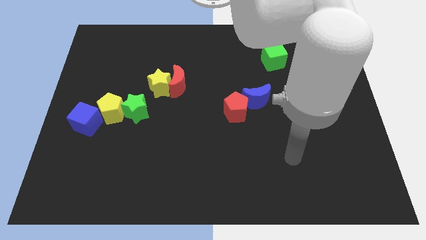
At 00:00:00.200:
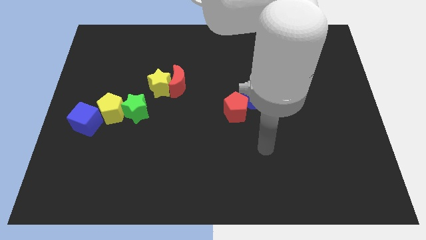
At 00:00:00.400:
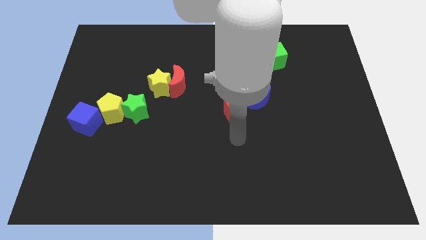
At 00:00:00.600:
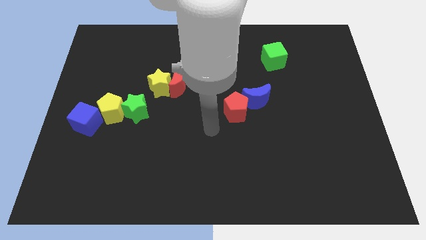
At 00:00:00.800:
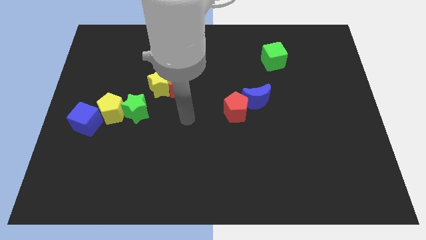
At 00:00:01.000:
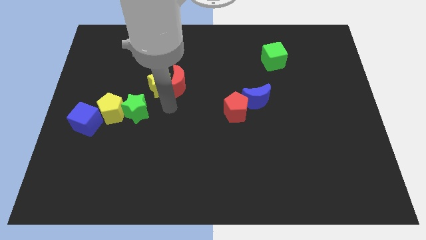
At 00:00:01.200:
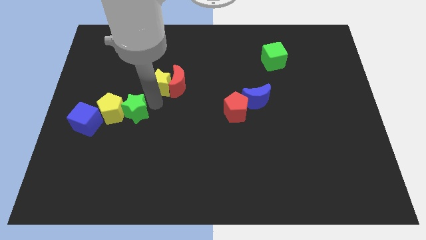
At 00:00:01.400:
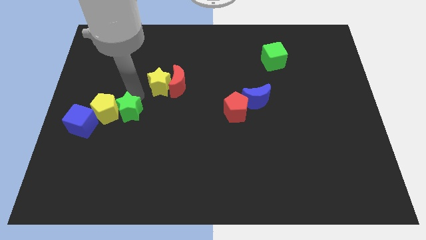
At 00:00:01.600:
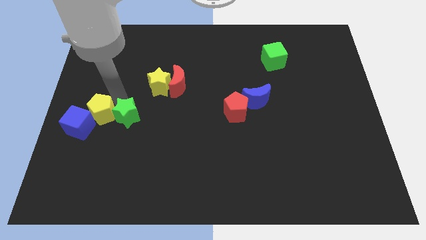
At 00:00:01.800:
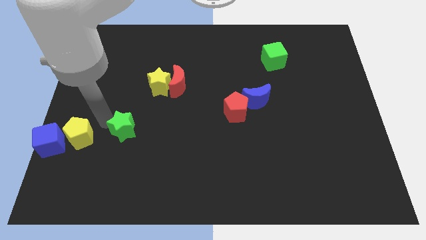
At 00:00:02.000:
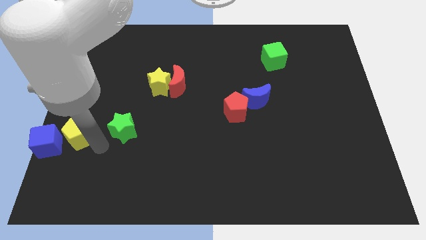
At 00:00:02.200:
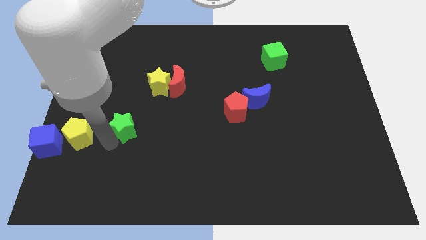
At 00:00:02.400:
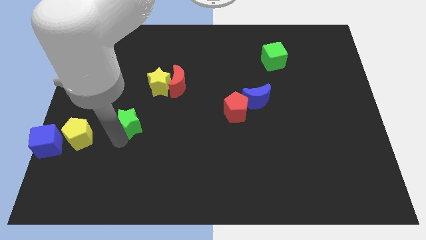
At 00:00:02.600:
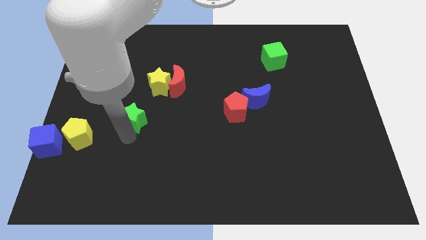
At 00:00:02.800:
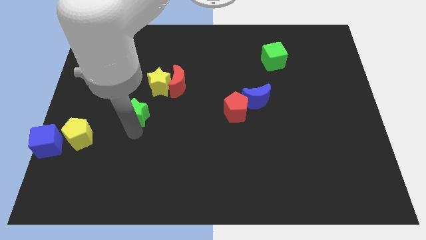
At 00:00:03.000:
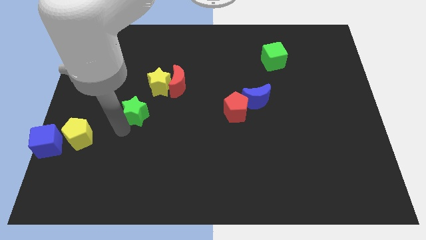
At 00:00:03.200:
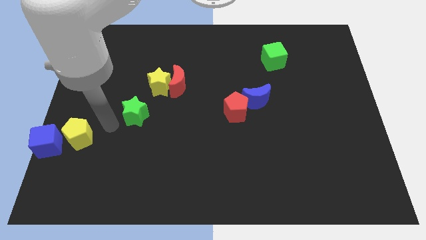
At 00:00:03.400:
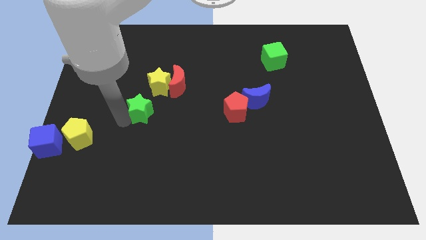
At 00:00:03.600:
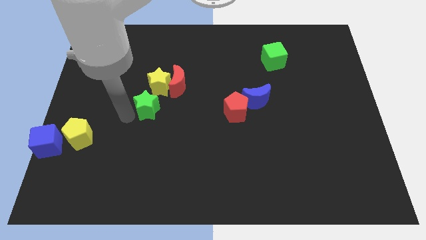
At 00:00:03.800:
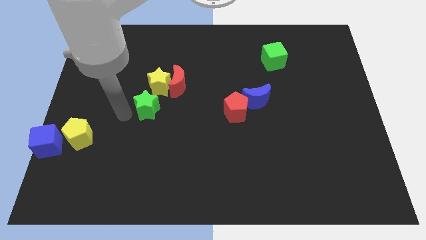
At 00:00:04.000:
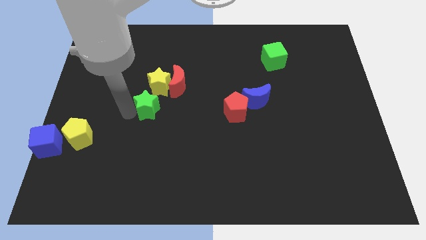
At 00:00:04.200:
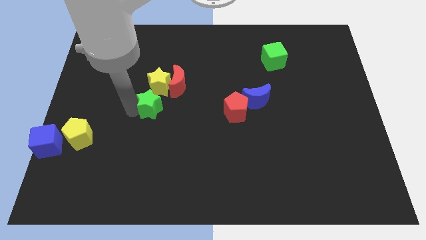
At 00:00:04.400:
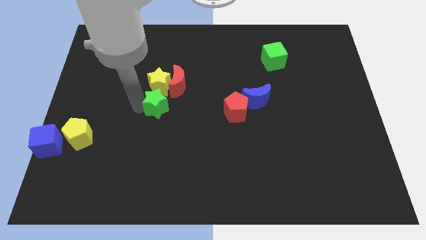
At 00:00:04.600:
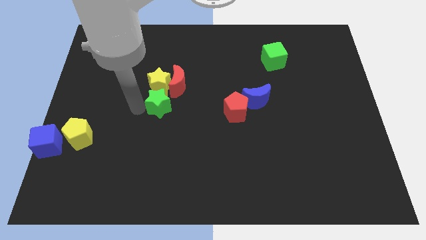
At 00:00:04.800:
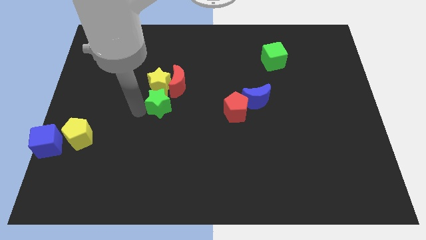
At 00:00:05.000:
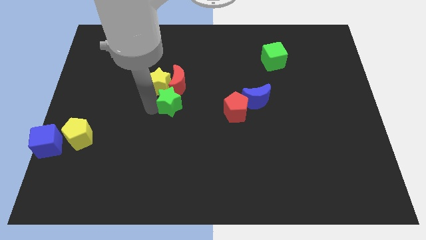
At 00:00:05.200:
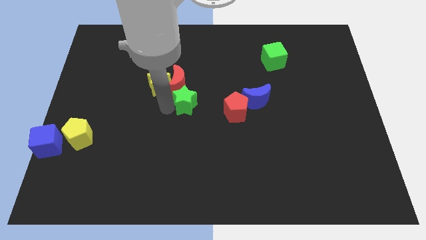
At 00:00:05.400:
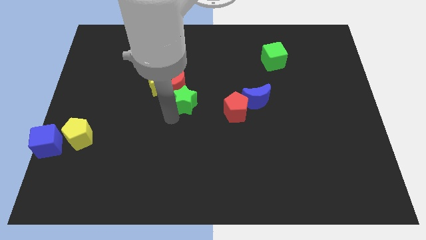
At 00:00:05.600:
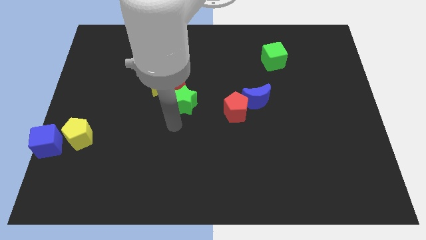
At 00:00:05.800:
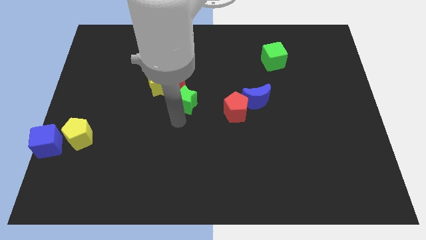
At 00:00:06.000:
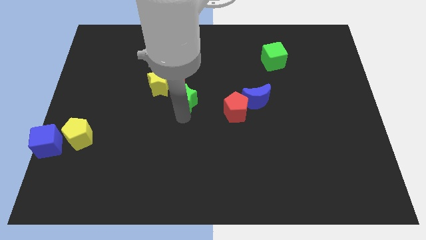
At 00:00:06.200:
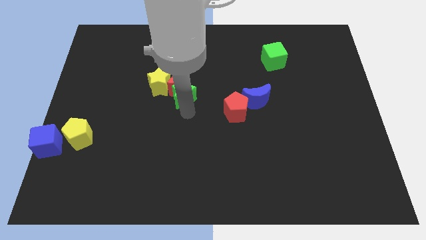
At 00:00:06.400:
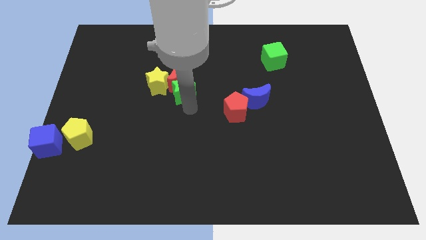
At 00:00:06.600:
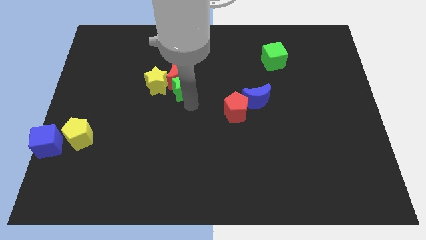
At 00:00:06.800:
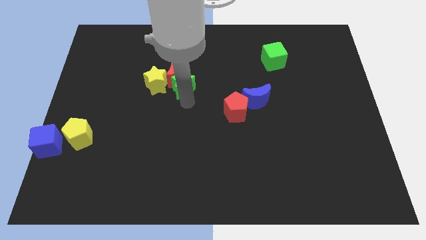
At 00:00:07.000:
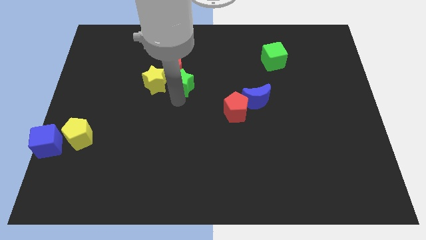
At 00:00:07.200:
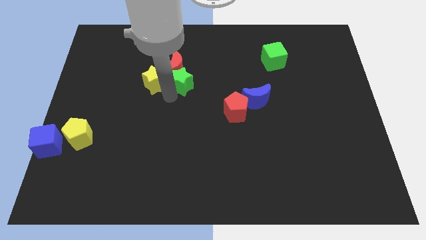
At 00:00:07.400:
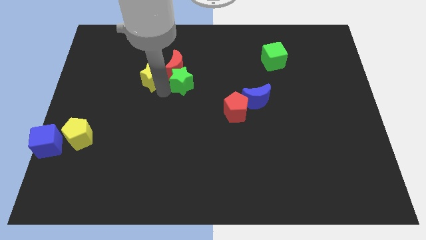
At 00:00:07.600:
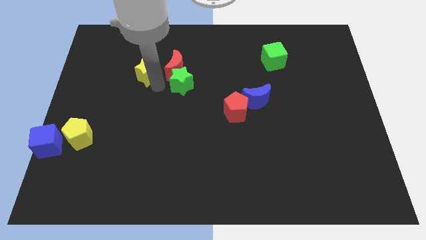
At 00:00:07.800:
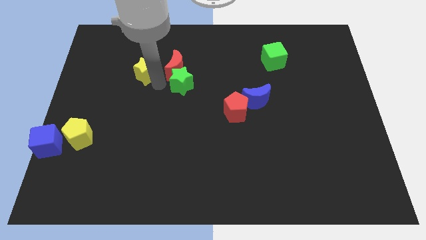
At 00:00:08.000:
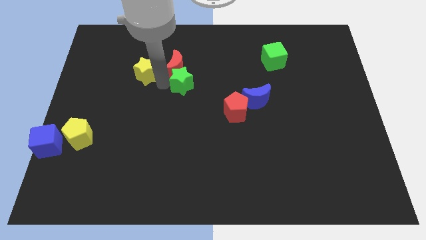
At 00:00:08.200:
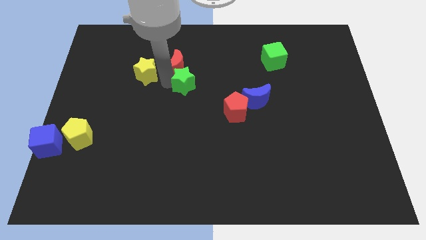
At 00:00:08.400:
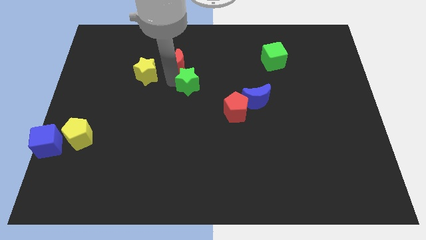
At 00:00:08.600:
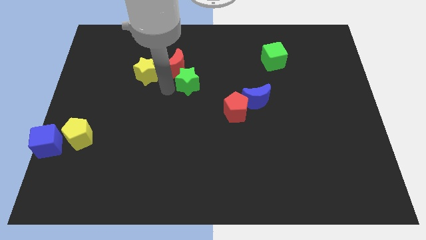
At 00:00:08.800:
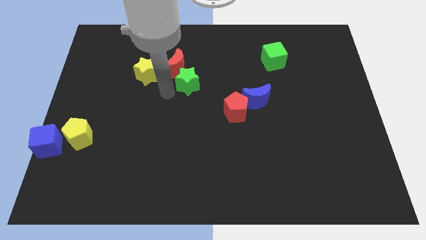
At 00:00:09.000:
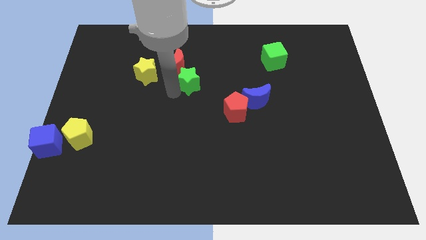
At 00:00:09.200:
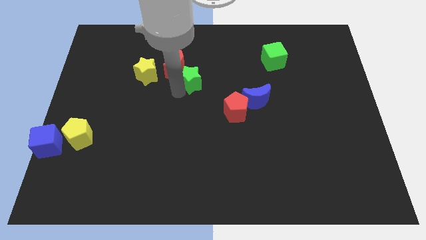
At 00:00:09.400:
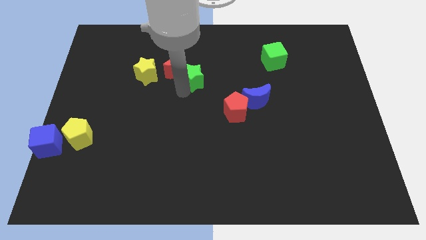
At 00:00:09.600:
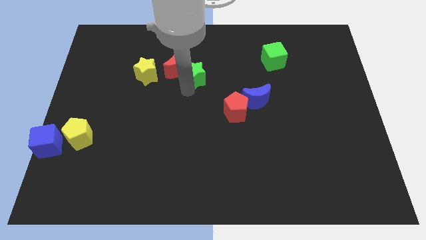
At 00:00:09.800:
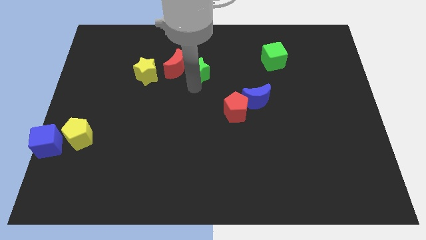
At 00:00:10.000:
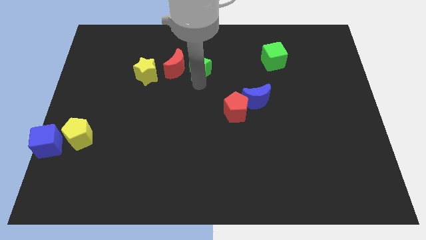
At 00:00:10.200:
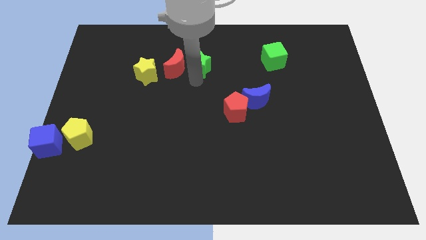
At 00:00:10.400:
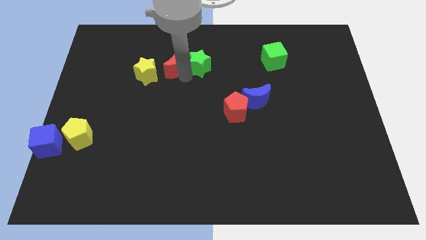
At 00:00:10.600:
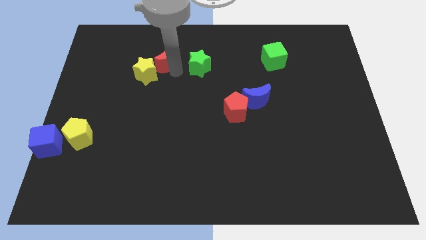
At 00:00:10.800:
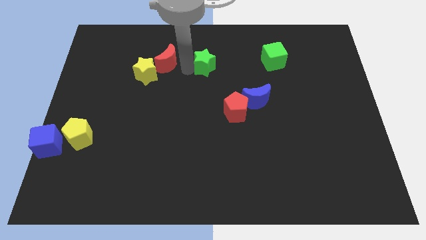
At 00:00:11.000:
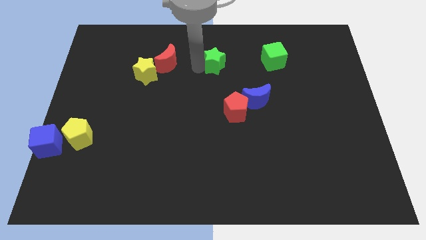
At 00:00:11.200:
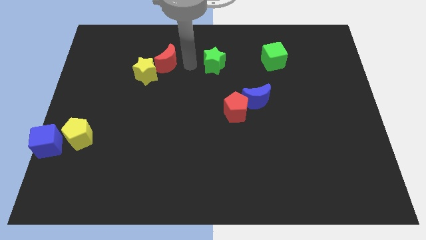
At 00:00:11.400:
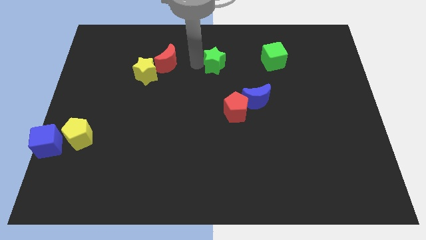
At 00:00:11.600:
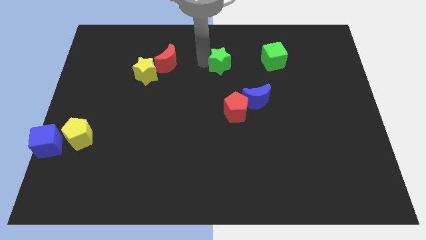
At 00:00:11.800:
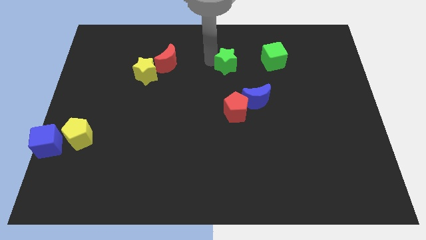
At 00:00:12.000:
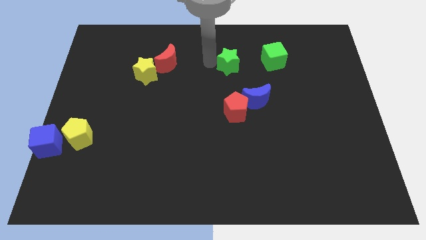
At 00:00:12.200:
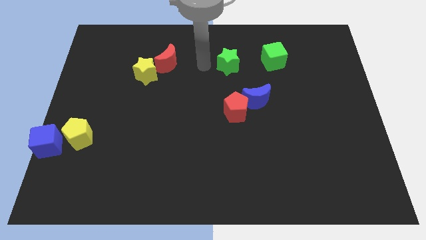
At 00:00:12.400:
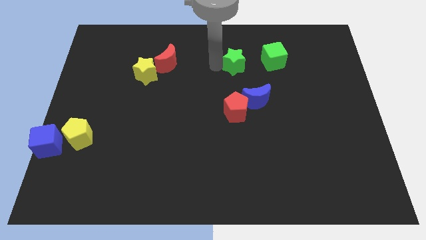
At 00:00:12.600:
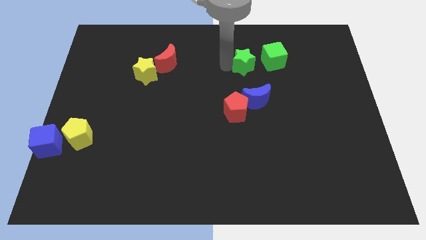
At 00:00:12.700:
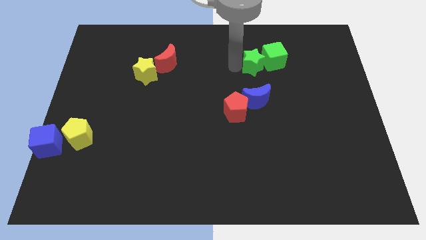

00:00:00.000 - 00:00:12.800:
slide the green star close to the green cube

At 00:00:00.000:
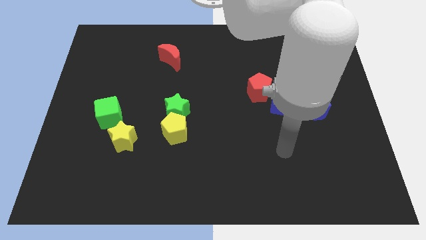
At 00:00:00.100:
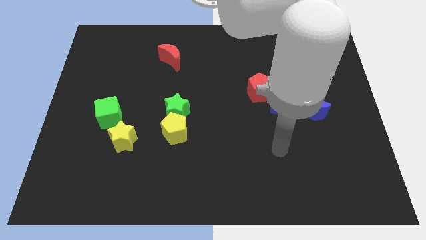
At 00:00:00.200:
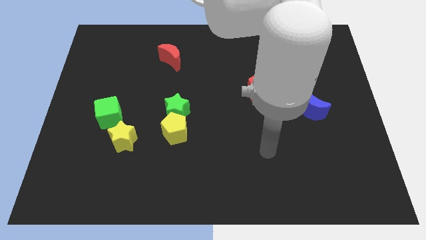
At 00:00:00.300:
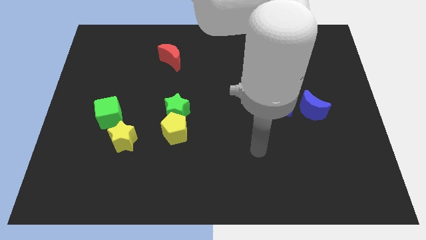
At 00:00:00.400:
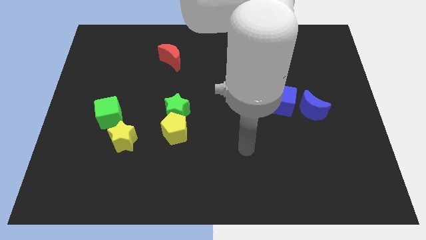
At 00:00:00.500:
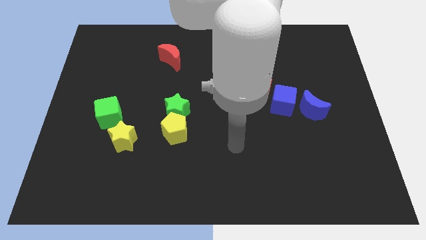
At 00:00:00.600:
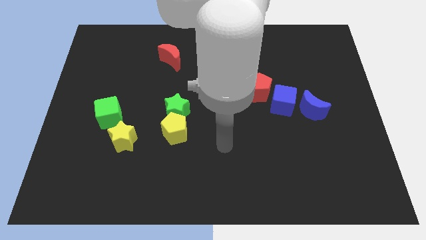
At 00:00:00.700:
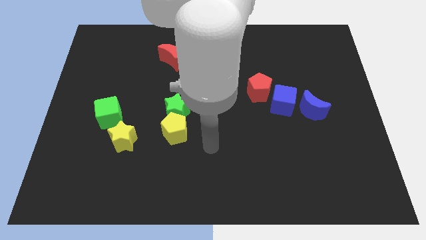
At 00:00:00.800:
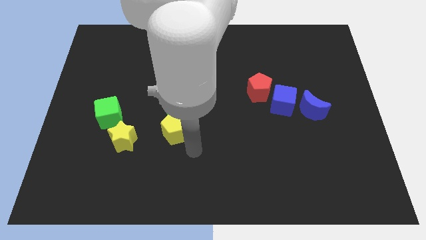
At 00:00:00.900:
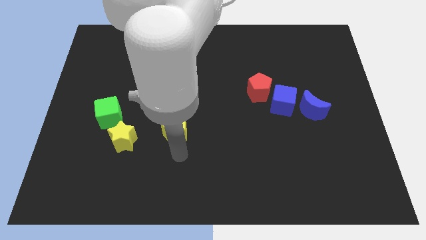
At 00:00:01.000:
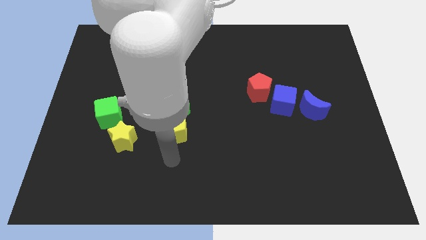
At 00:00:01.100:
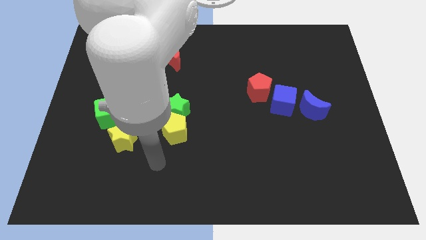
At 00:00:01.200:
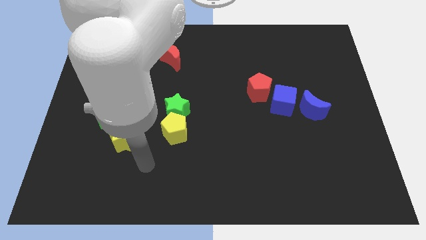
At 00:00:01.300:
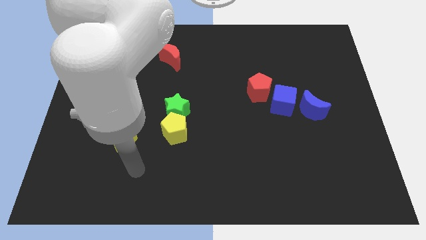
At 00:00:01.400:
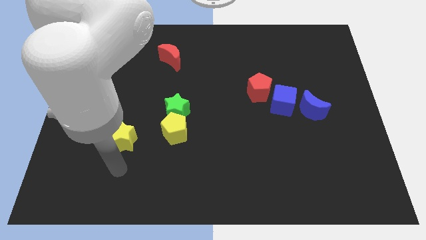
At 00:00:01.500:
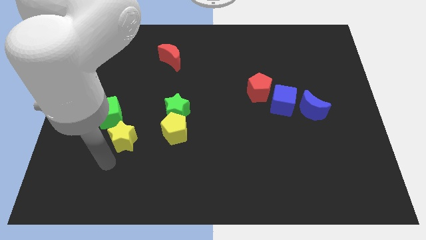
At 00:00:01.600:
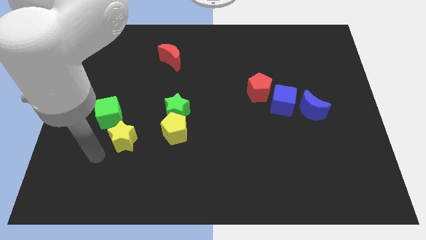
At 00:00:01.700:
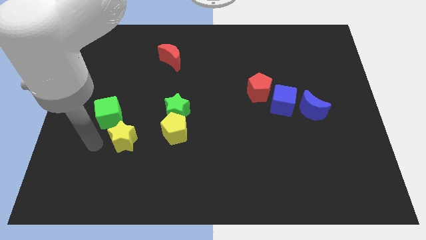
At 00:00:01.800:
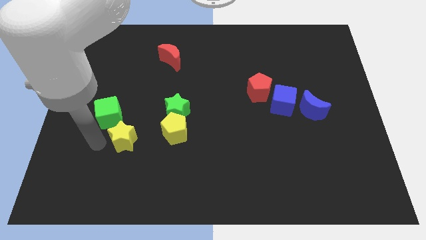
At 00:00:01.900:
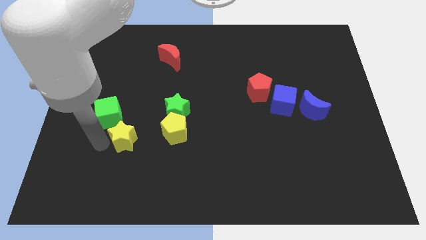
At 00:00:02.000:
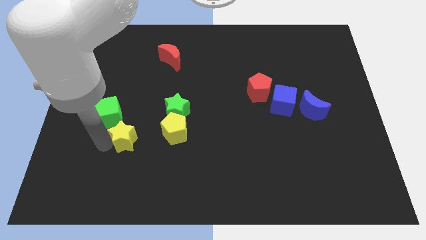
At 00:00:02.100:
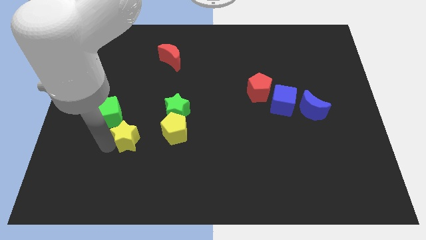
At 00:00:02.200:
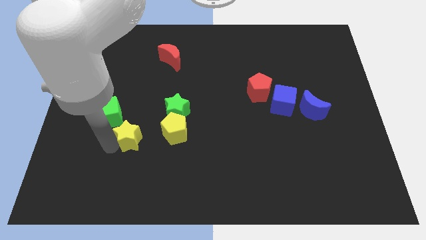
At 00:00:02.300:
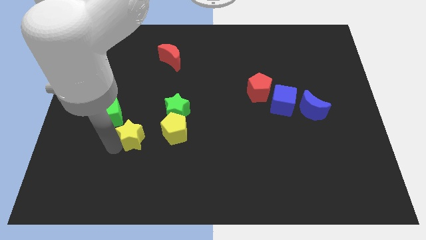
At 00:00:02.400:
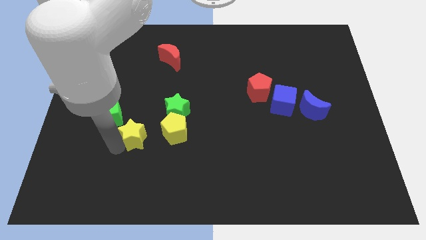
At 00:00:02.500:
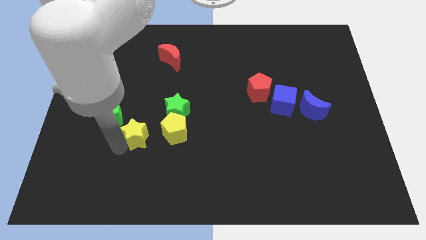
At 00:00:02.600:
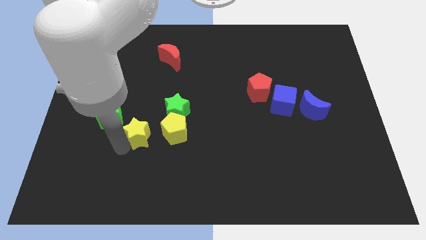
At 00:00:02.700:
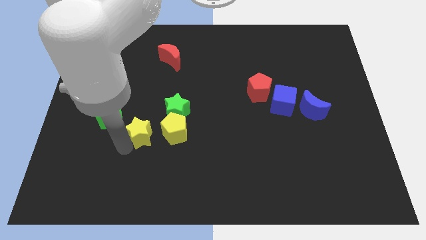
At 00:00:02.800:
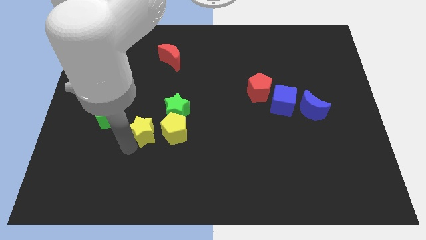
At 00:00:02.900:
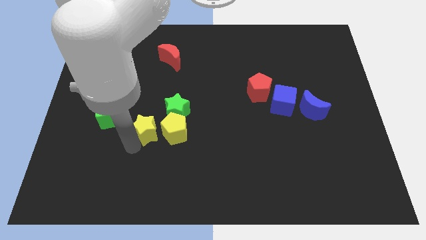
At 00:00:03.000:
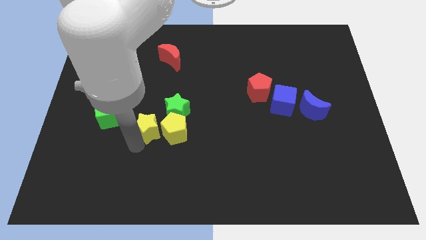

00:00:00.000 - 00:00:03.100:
push the yellow star next to the yellow pentagon
